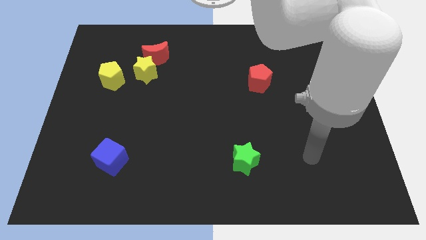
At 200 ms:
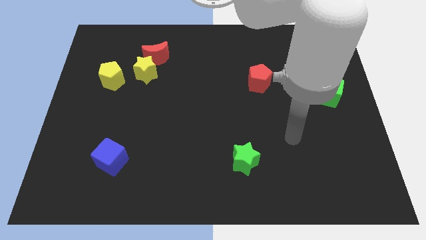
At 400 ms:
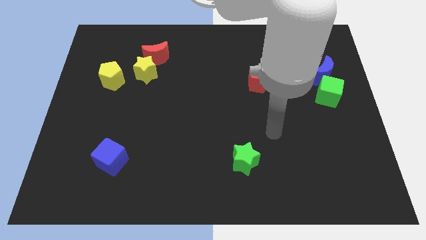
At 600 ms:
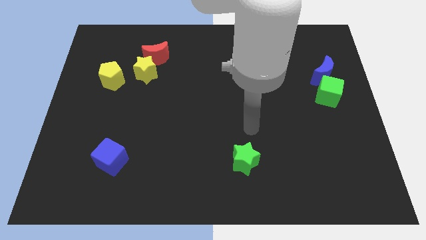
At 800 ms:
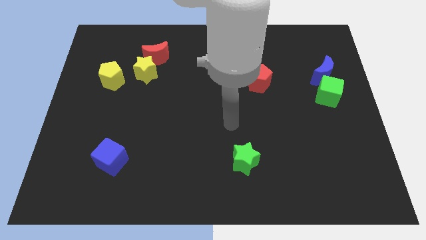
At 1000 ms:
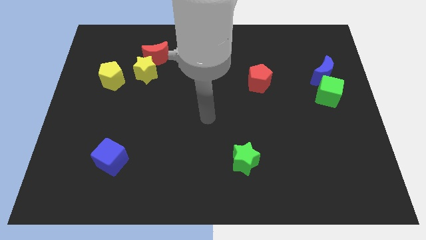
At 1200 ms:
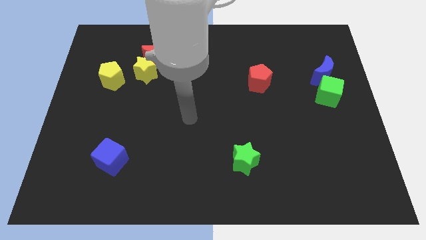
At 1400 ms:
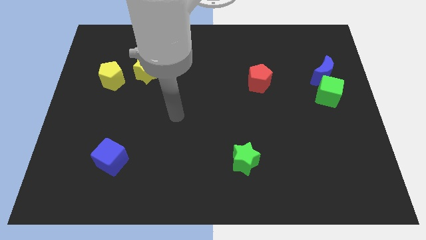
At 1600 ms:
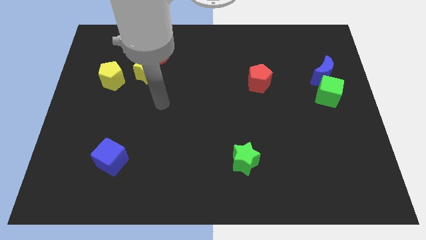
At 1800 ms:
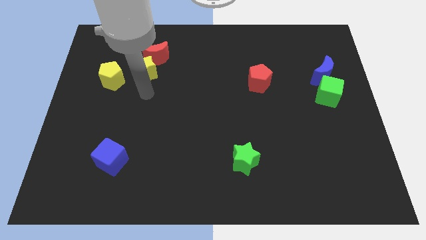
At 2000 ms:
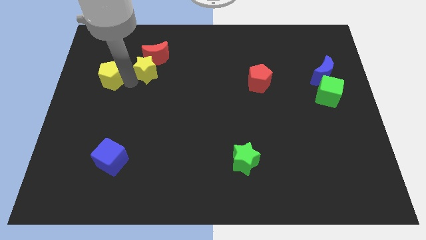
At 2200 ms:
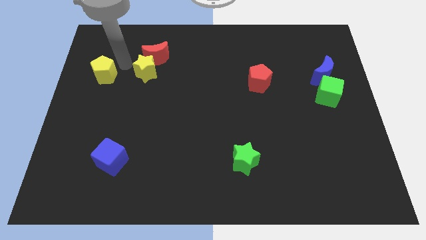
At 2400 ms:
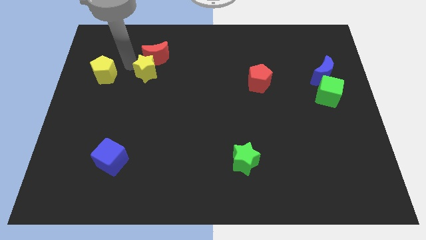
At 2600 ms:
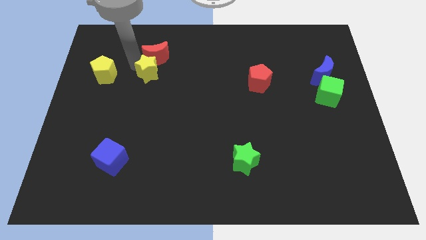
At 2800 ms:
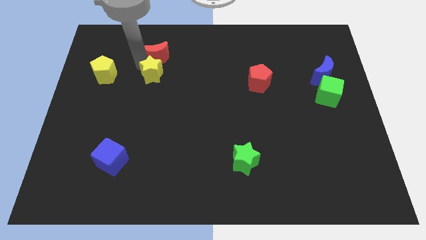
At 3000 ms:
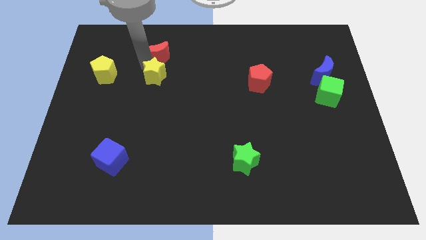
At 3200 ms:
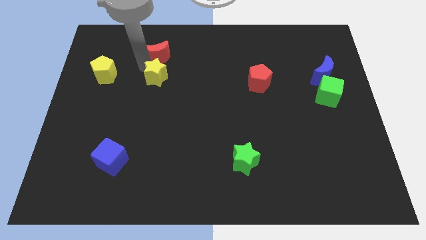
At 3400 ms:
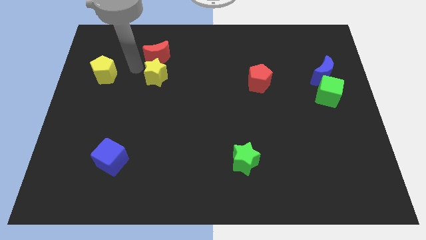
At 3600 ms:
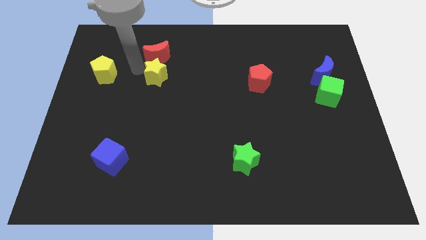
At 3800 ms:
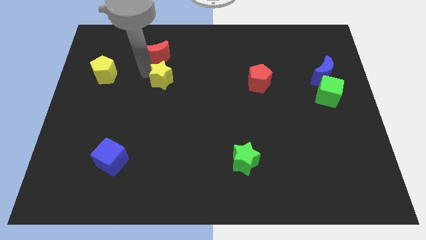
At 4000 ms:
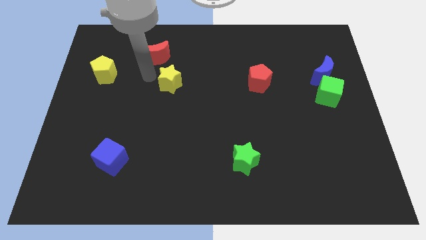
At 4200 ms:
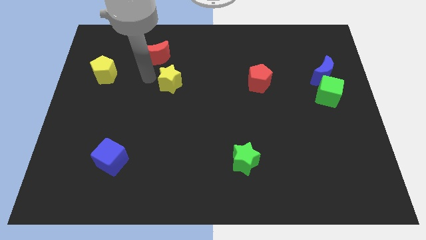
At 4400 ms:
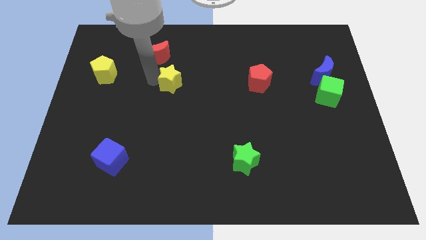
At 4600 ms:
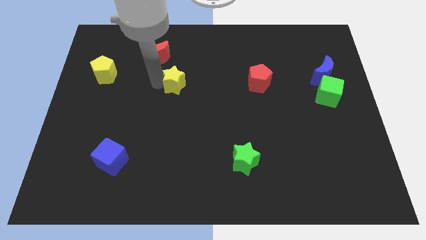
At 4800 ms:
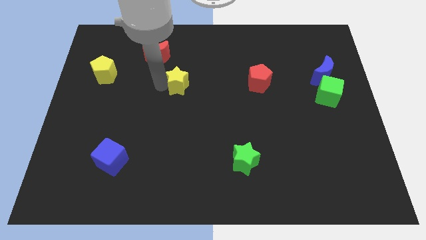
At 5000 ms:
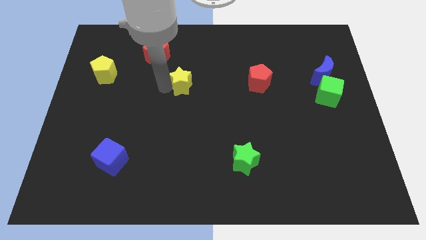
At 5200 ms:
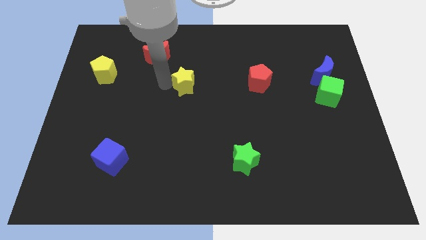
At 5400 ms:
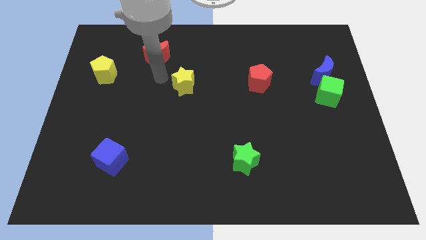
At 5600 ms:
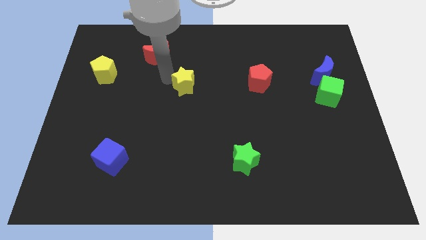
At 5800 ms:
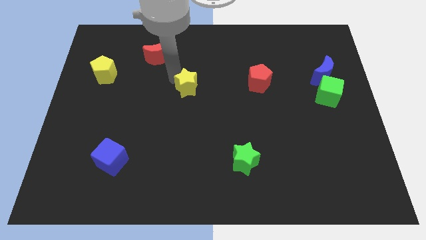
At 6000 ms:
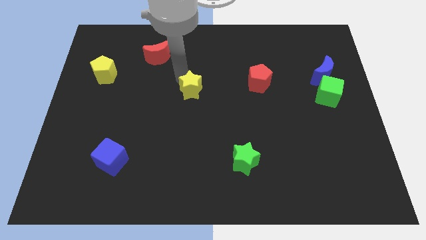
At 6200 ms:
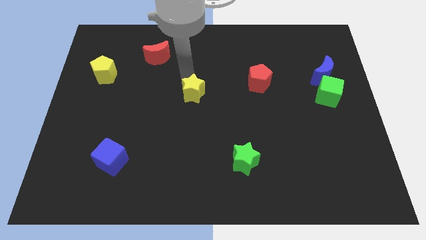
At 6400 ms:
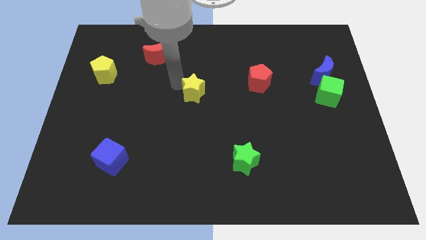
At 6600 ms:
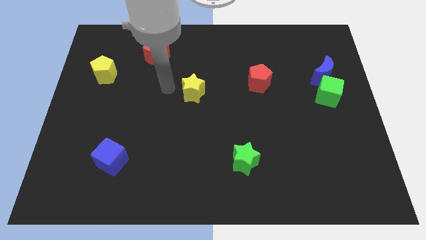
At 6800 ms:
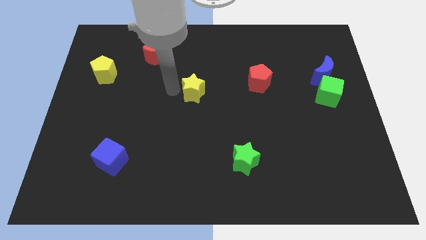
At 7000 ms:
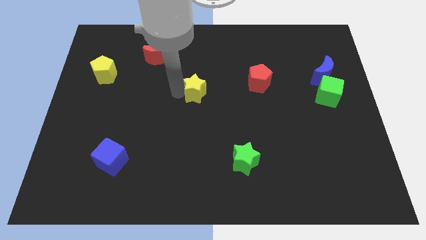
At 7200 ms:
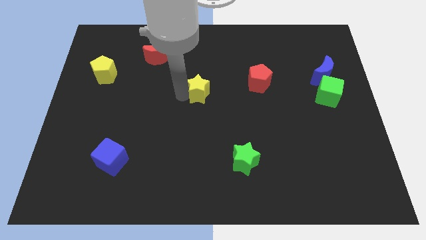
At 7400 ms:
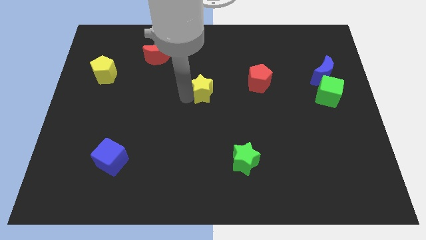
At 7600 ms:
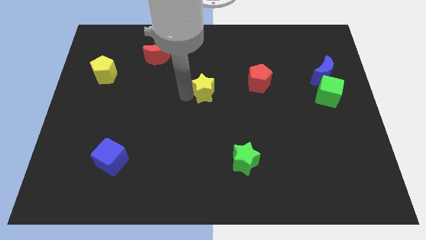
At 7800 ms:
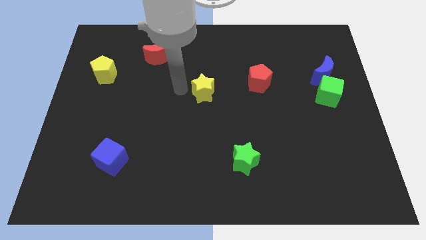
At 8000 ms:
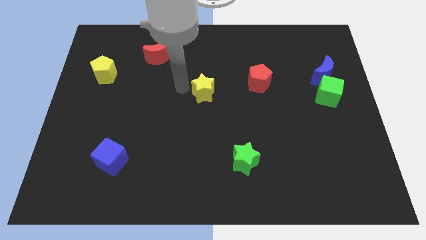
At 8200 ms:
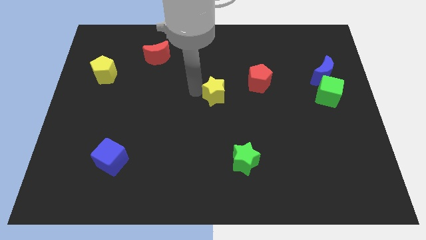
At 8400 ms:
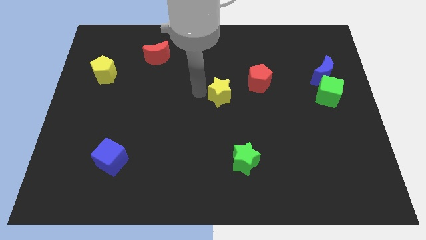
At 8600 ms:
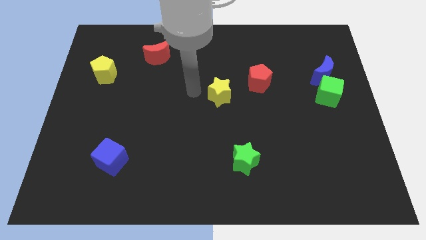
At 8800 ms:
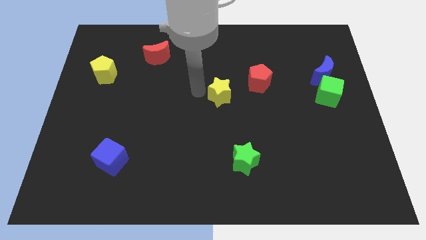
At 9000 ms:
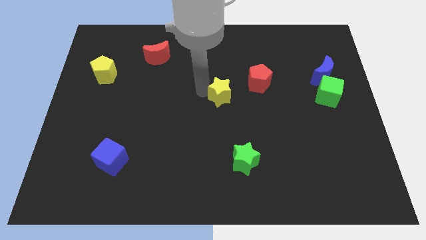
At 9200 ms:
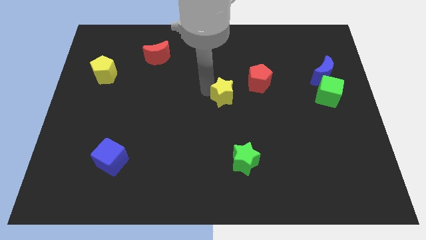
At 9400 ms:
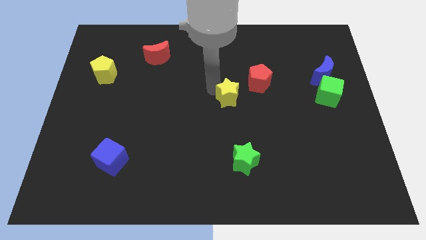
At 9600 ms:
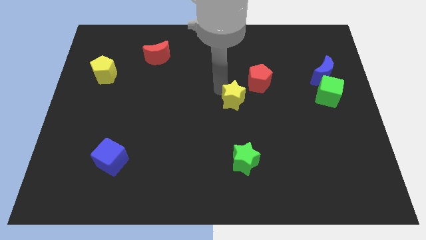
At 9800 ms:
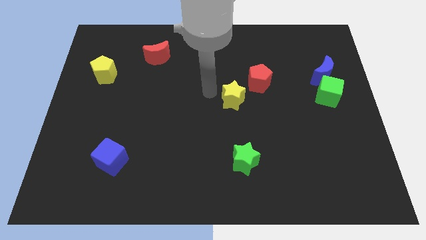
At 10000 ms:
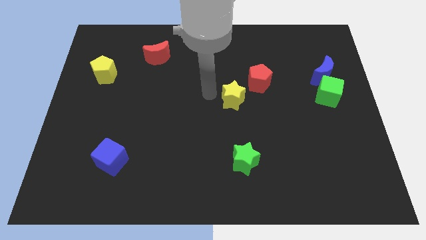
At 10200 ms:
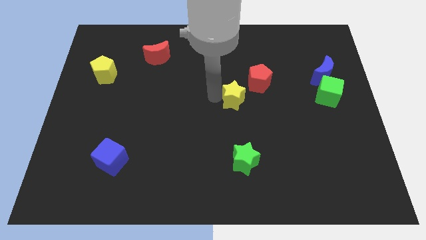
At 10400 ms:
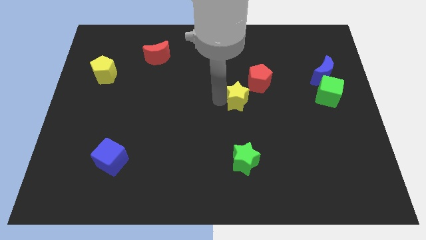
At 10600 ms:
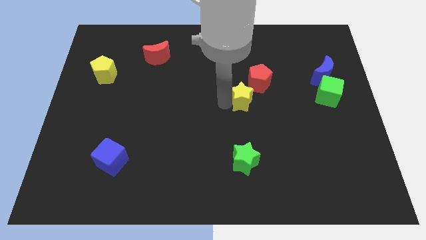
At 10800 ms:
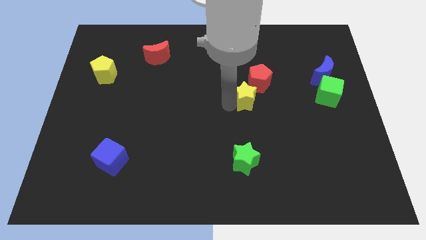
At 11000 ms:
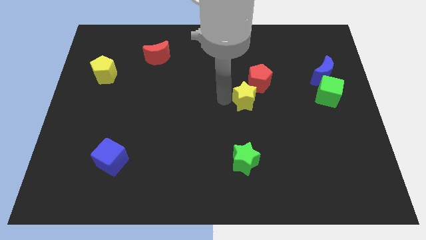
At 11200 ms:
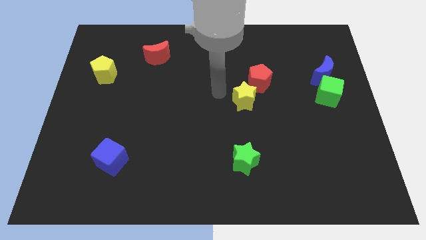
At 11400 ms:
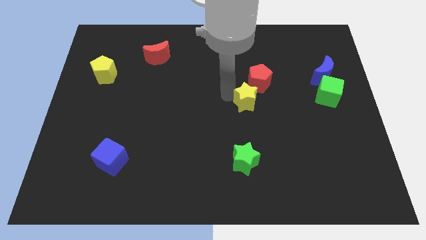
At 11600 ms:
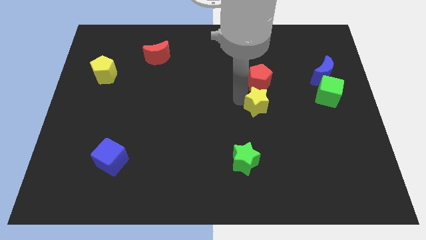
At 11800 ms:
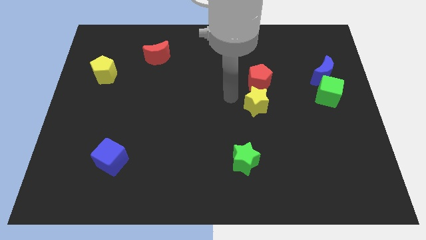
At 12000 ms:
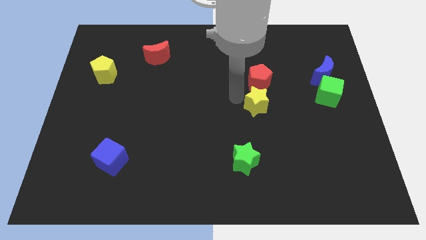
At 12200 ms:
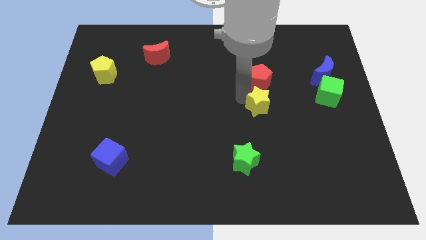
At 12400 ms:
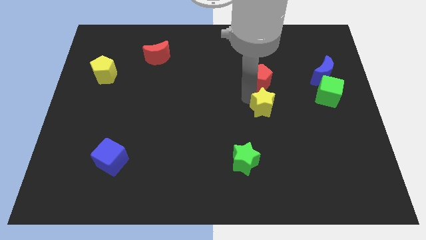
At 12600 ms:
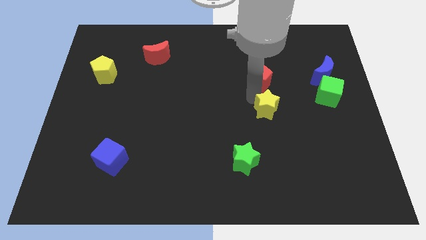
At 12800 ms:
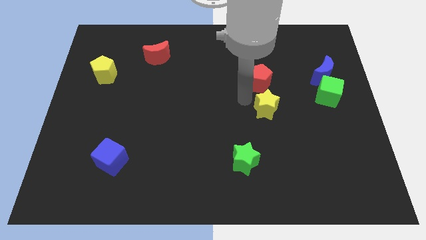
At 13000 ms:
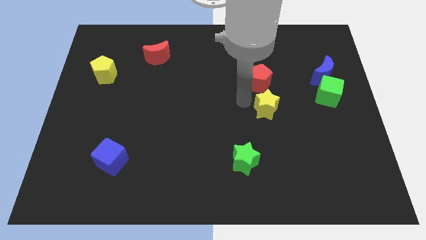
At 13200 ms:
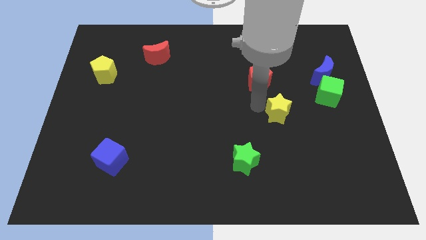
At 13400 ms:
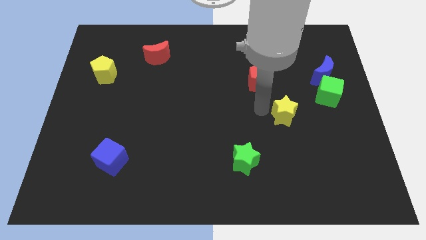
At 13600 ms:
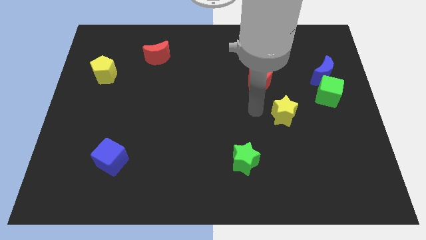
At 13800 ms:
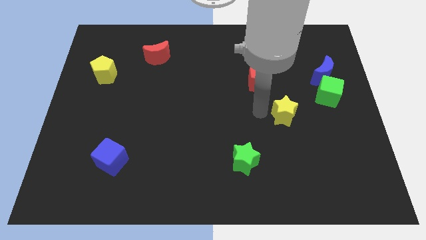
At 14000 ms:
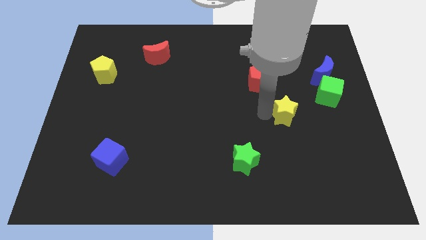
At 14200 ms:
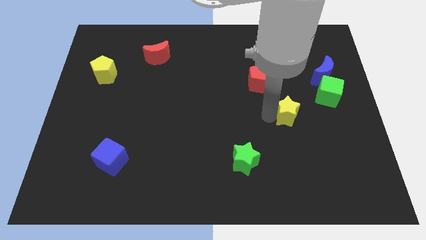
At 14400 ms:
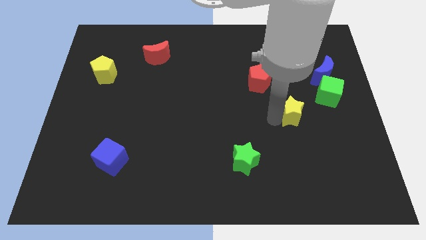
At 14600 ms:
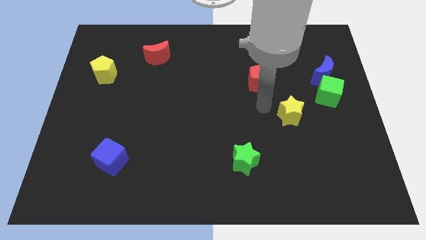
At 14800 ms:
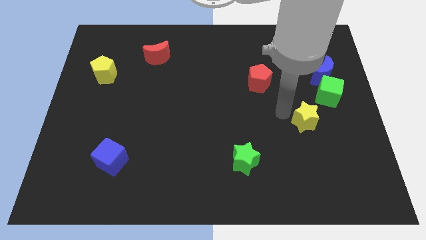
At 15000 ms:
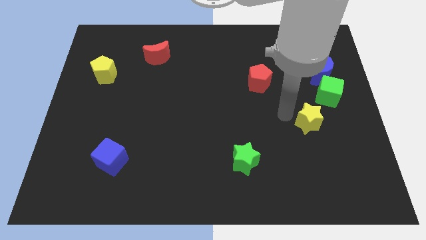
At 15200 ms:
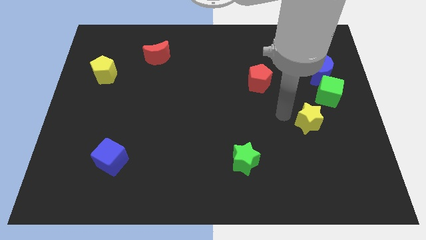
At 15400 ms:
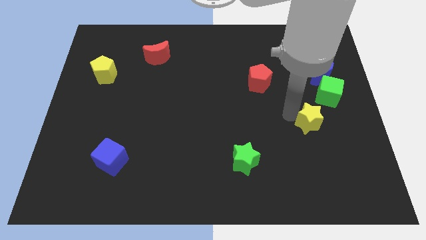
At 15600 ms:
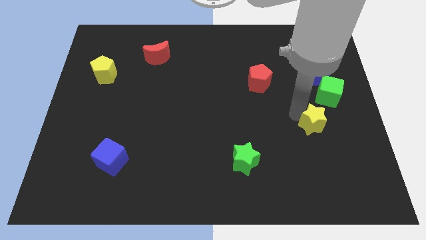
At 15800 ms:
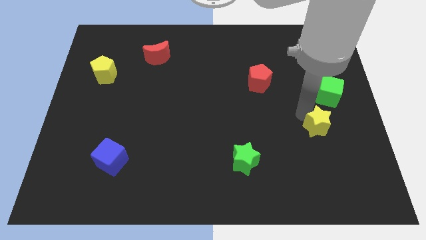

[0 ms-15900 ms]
move the yellow star to the bottom side of the green cube
